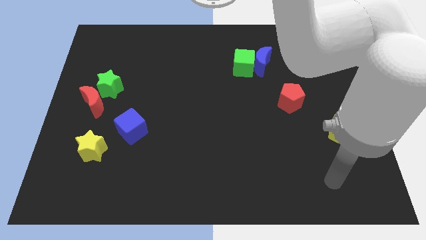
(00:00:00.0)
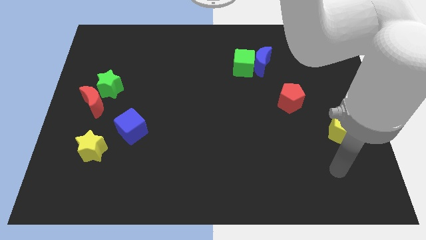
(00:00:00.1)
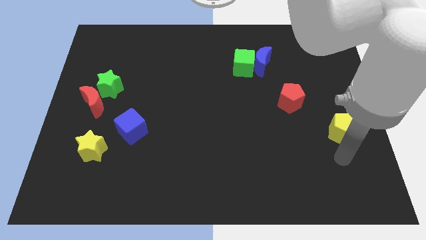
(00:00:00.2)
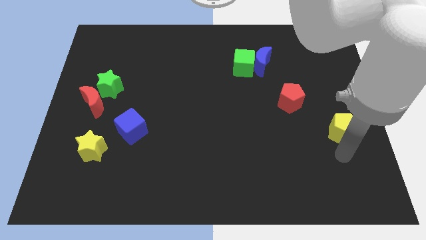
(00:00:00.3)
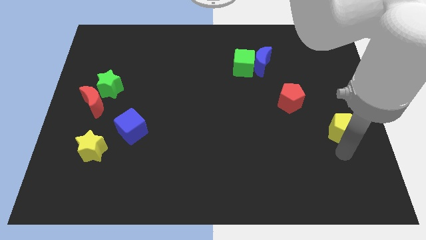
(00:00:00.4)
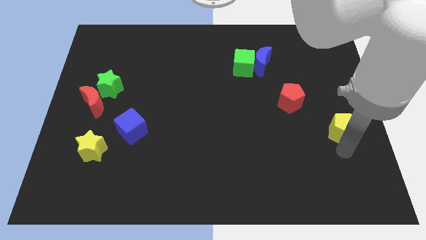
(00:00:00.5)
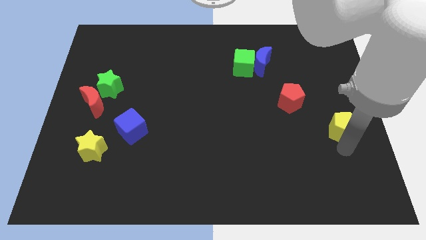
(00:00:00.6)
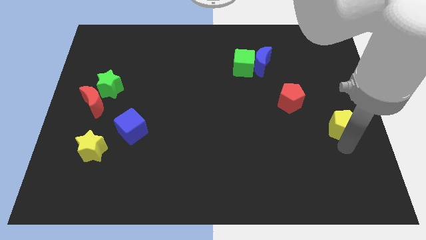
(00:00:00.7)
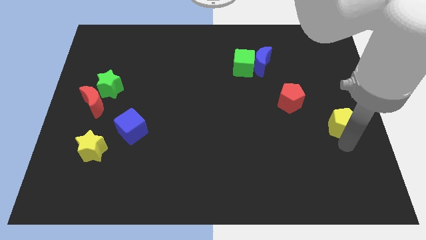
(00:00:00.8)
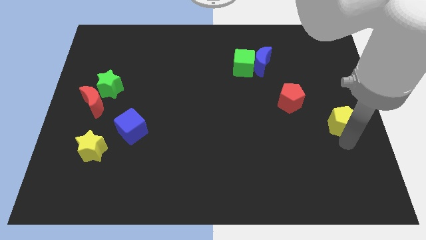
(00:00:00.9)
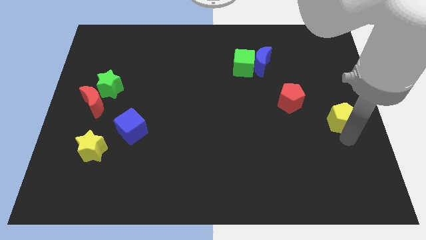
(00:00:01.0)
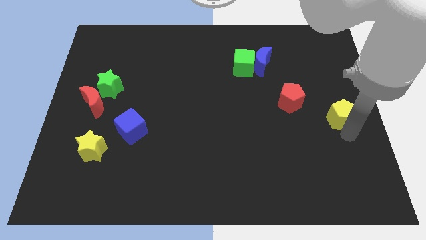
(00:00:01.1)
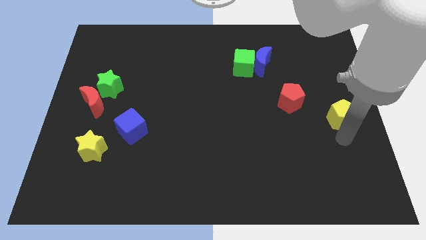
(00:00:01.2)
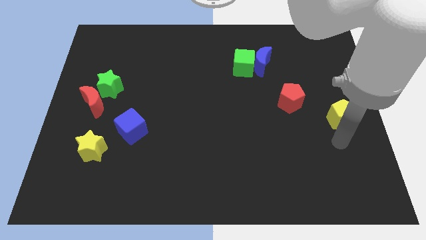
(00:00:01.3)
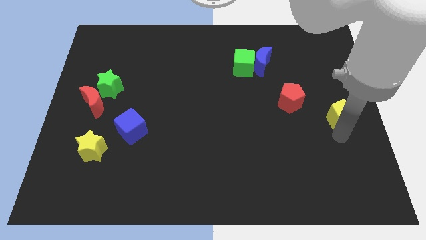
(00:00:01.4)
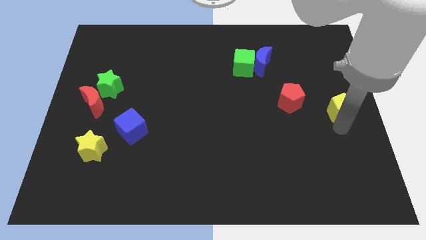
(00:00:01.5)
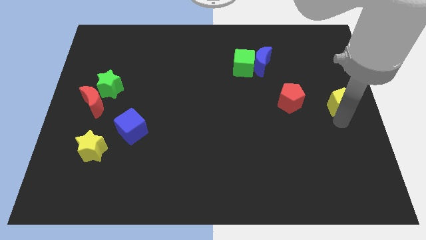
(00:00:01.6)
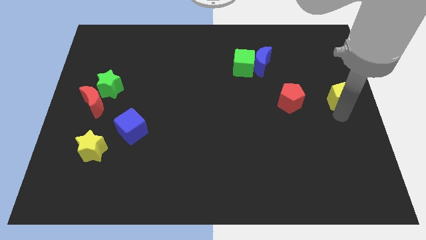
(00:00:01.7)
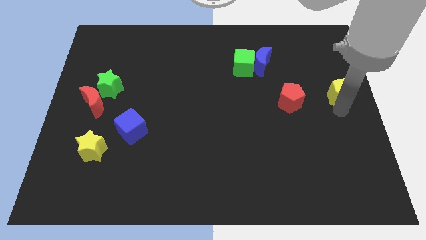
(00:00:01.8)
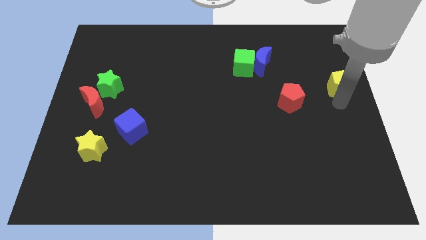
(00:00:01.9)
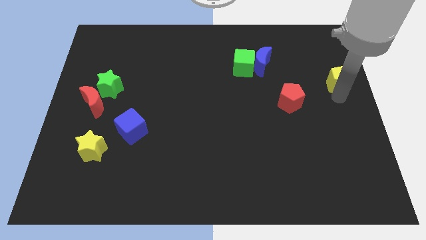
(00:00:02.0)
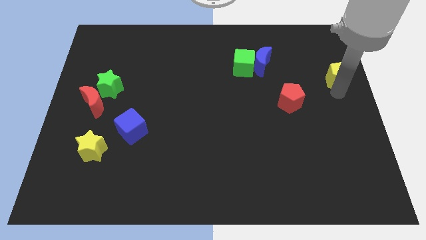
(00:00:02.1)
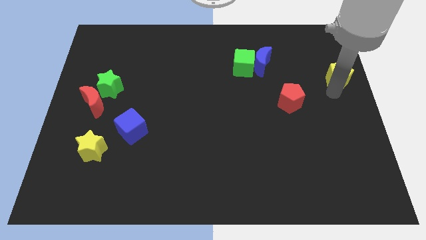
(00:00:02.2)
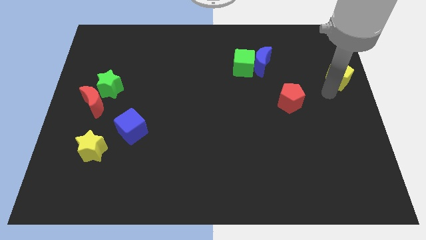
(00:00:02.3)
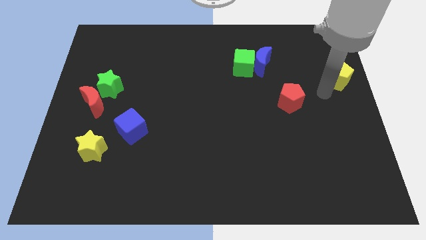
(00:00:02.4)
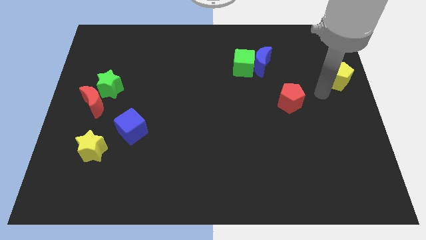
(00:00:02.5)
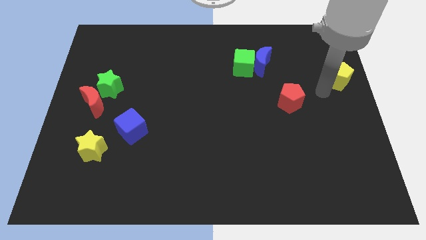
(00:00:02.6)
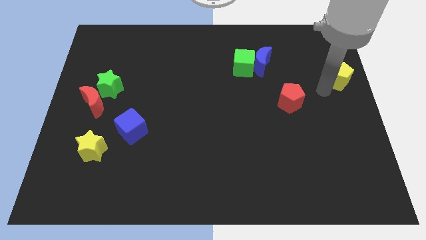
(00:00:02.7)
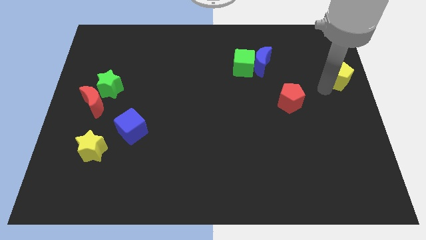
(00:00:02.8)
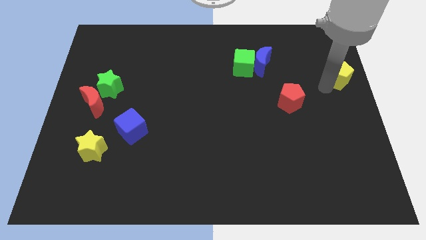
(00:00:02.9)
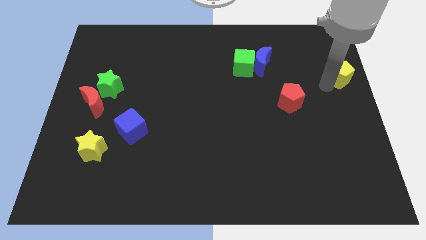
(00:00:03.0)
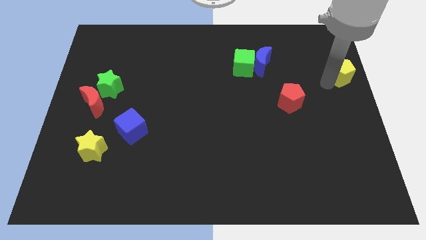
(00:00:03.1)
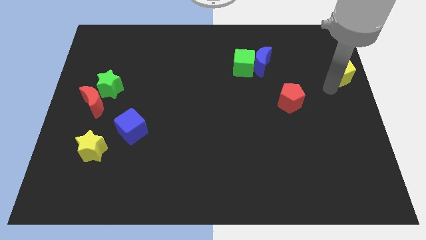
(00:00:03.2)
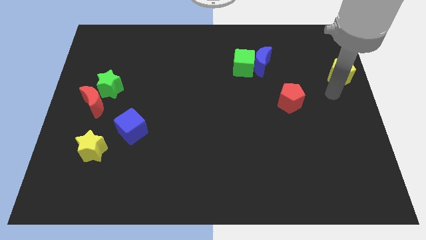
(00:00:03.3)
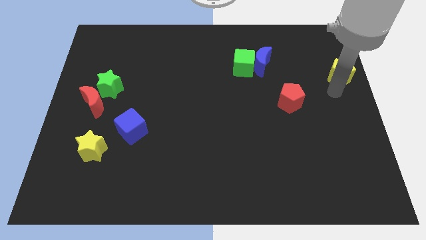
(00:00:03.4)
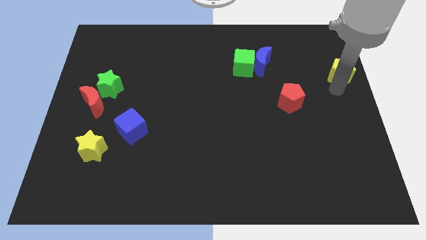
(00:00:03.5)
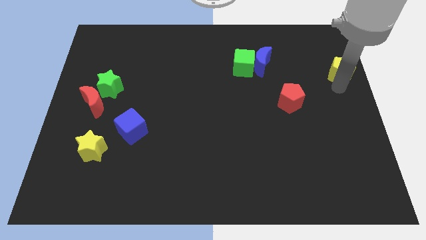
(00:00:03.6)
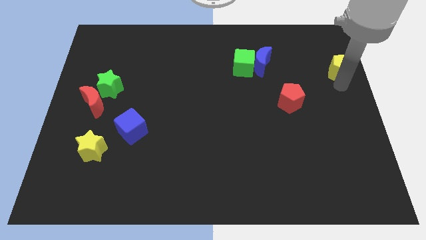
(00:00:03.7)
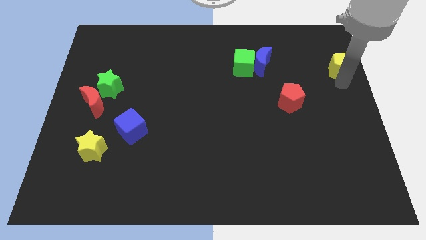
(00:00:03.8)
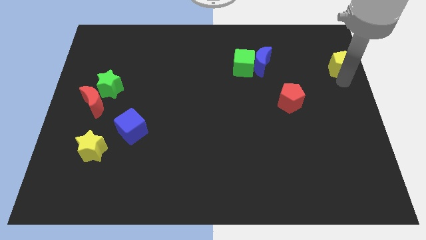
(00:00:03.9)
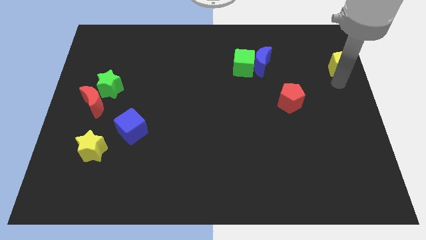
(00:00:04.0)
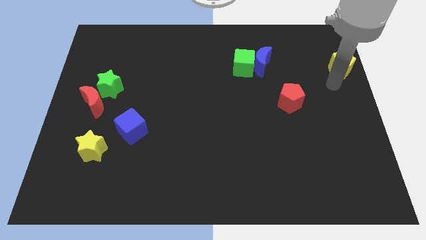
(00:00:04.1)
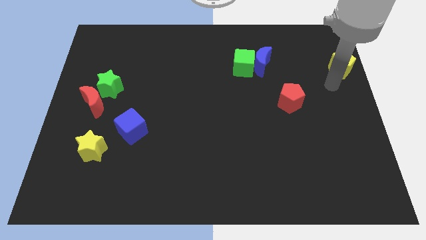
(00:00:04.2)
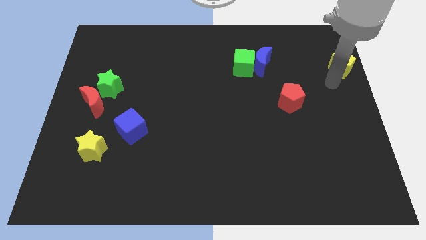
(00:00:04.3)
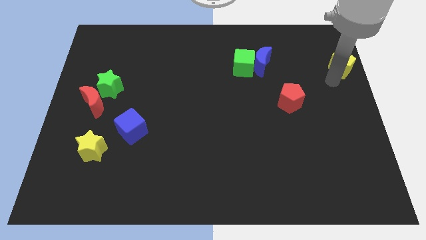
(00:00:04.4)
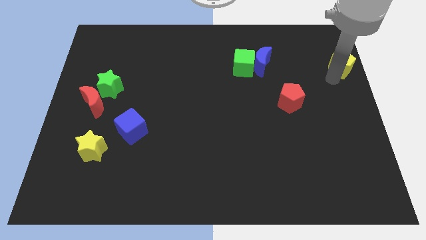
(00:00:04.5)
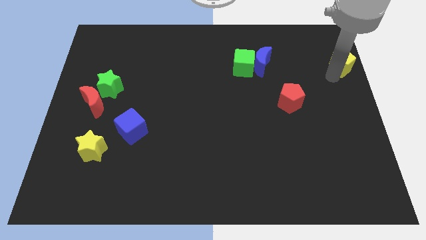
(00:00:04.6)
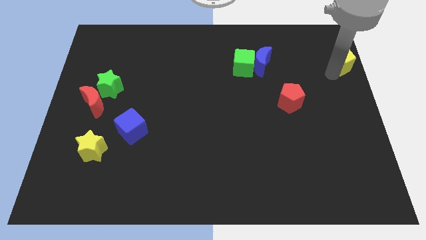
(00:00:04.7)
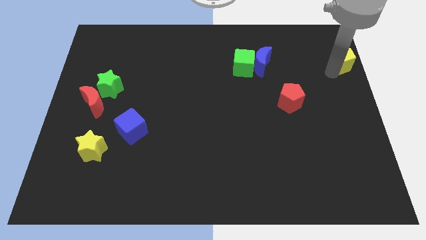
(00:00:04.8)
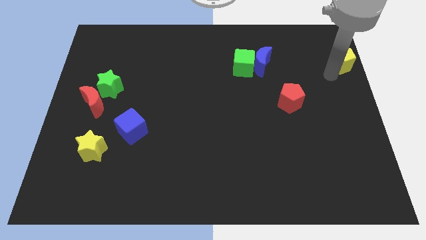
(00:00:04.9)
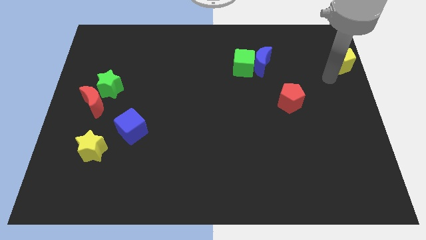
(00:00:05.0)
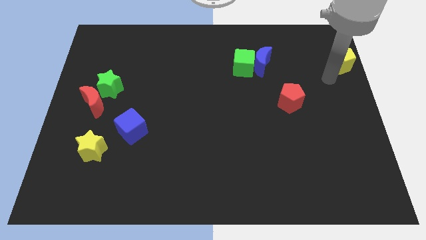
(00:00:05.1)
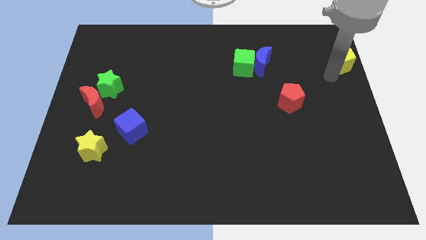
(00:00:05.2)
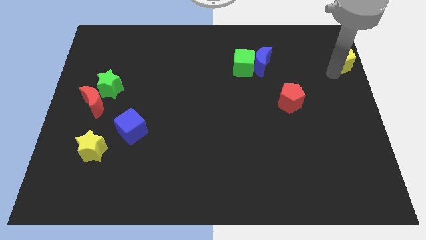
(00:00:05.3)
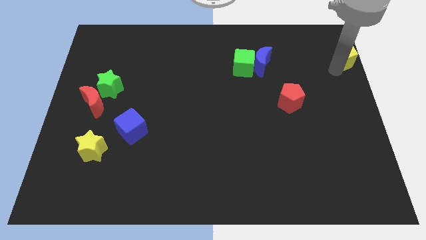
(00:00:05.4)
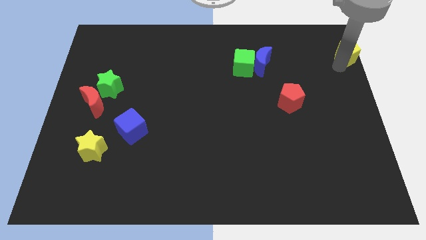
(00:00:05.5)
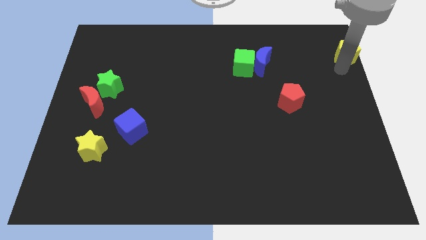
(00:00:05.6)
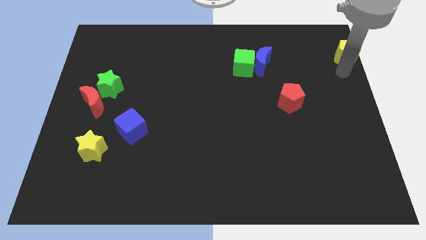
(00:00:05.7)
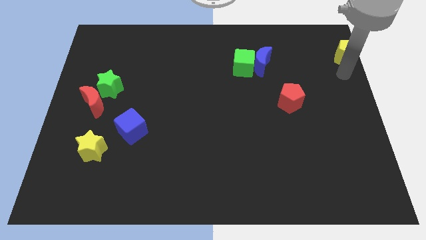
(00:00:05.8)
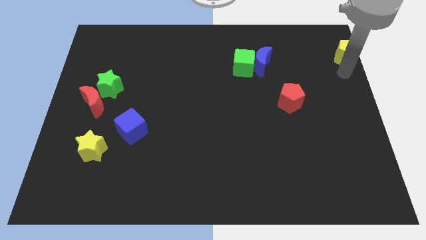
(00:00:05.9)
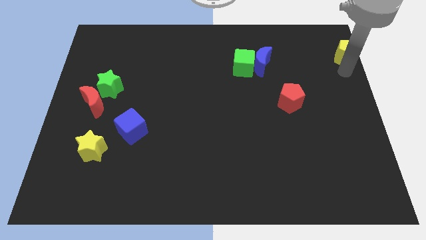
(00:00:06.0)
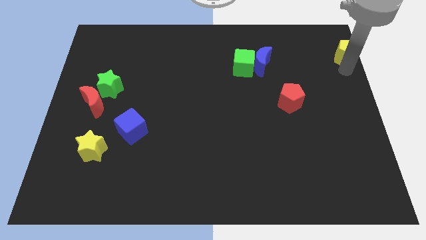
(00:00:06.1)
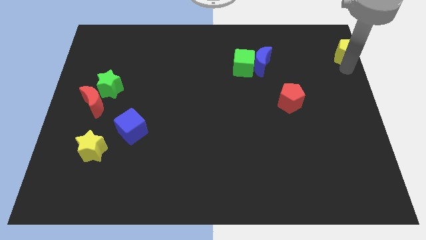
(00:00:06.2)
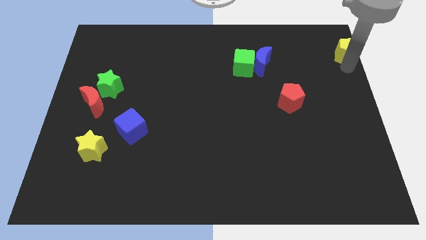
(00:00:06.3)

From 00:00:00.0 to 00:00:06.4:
move the yellow pentagon to the top right
